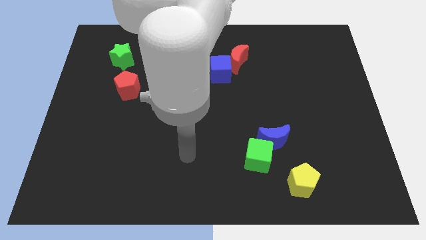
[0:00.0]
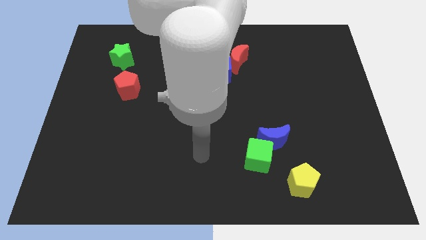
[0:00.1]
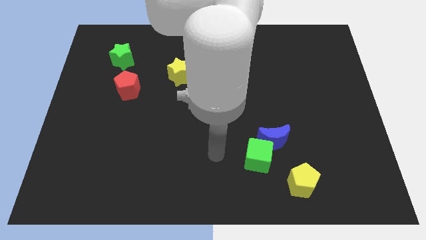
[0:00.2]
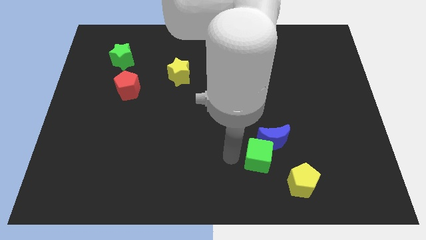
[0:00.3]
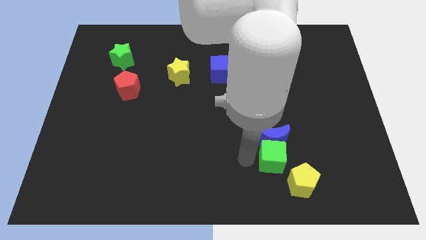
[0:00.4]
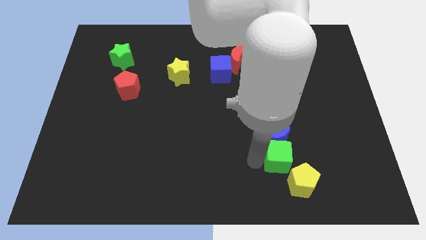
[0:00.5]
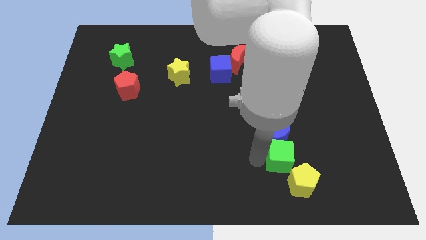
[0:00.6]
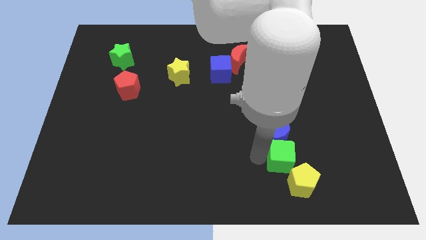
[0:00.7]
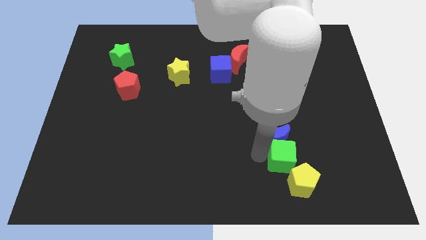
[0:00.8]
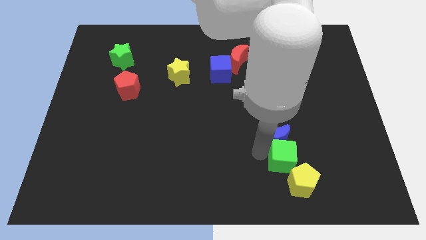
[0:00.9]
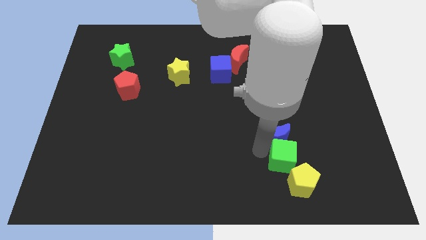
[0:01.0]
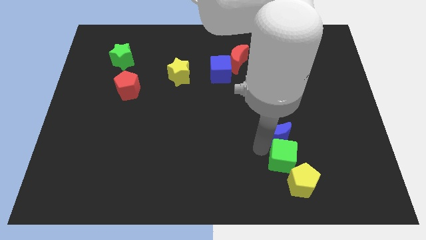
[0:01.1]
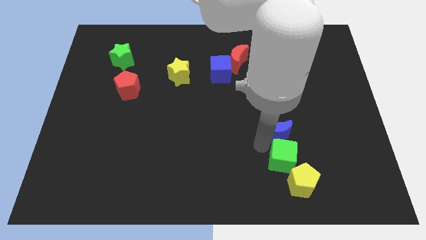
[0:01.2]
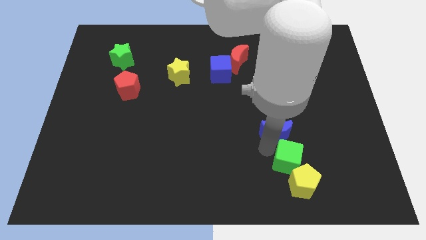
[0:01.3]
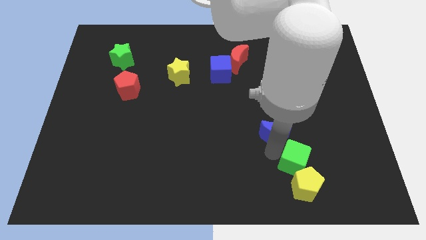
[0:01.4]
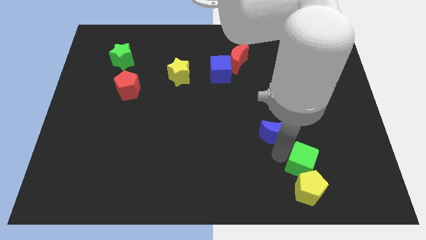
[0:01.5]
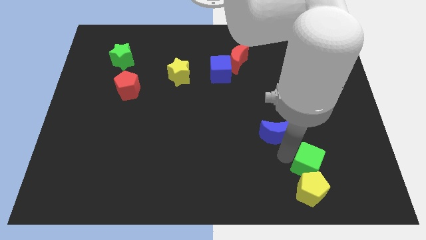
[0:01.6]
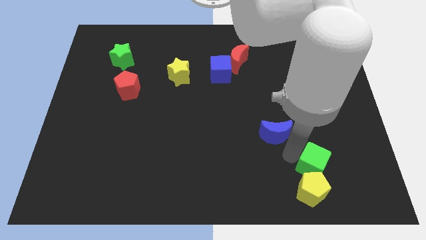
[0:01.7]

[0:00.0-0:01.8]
pull the blue moon apart from the green cube

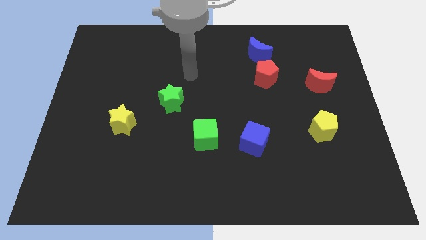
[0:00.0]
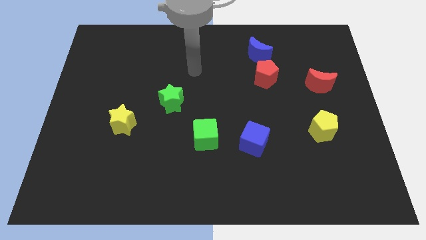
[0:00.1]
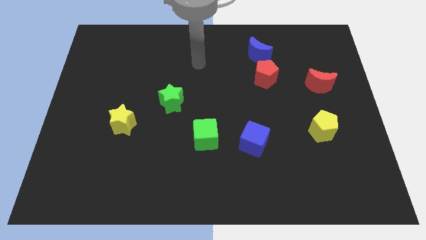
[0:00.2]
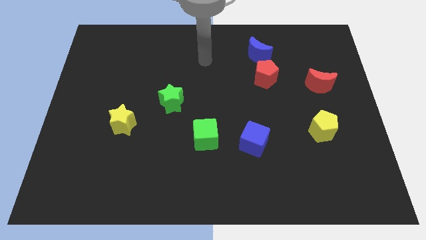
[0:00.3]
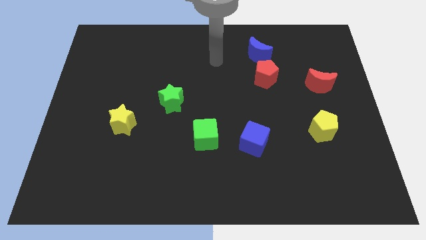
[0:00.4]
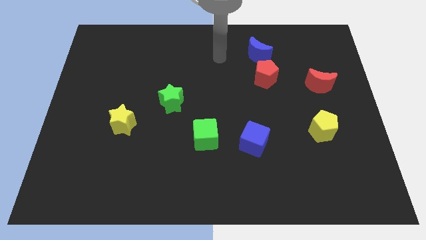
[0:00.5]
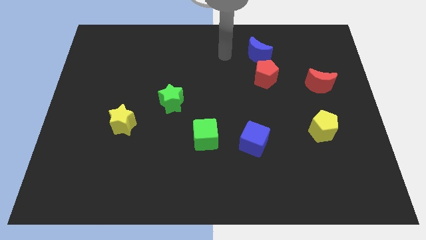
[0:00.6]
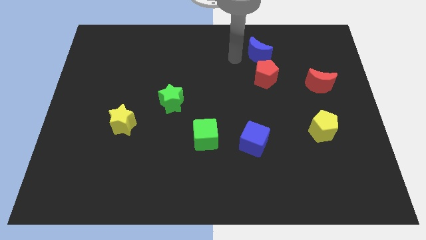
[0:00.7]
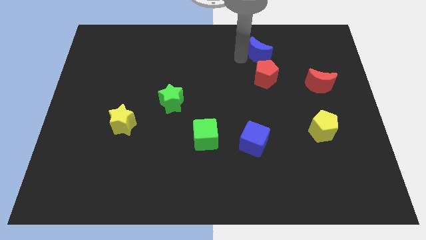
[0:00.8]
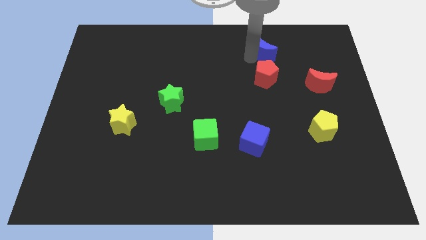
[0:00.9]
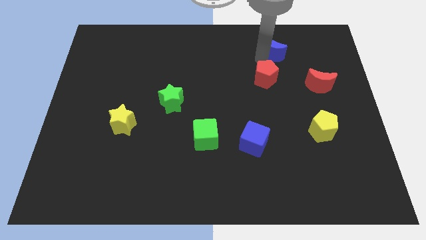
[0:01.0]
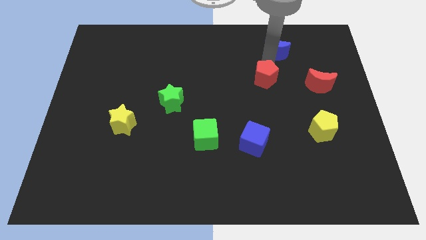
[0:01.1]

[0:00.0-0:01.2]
move the red pentagon away from the blue moon

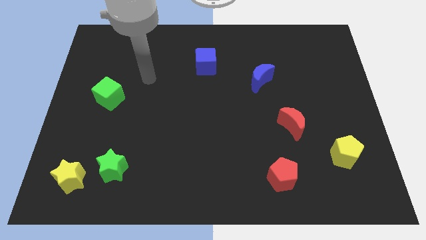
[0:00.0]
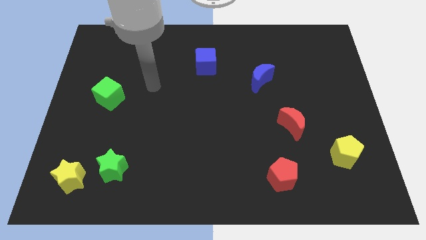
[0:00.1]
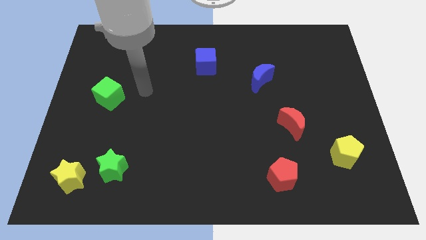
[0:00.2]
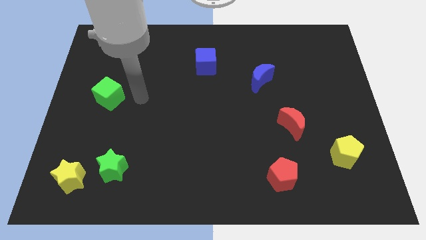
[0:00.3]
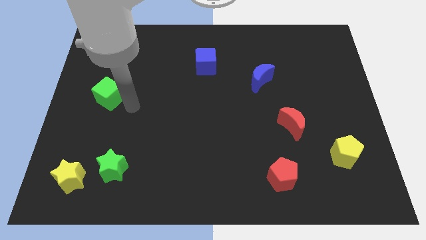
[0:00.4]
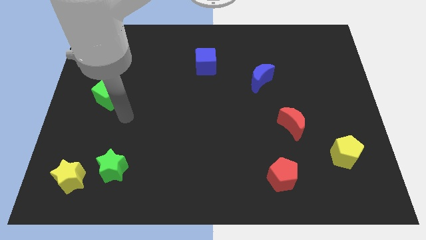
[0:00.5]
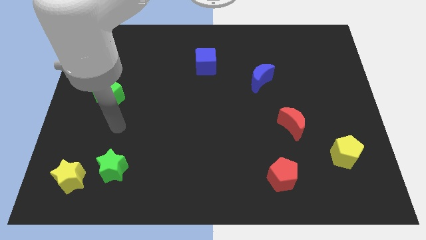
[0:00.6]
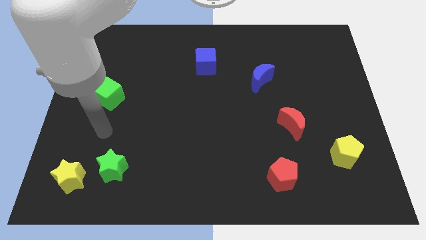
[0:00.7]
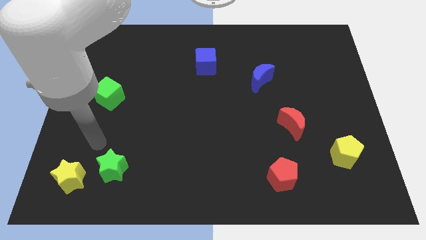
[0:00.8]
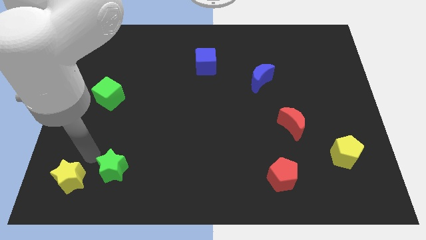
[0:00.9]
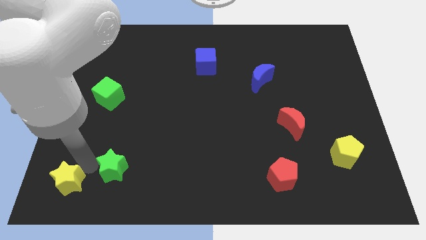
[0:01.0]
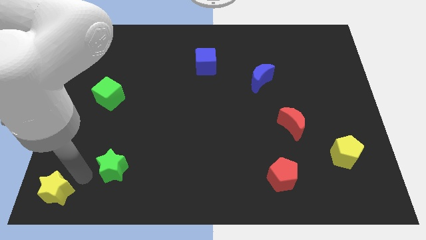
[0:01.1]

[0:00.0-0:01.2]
pull the green star apart from the yellow star

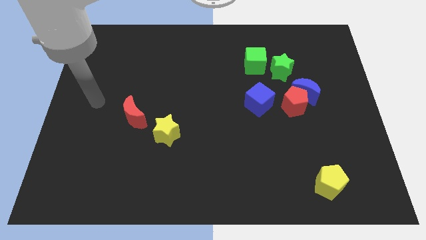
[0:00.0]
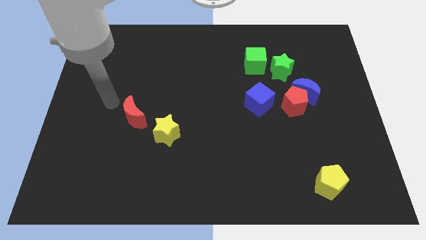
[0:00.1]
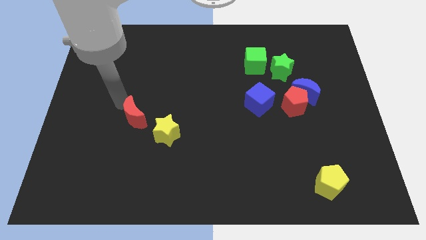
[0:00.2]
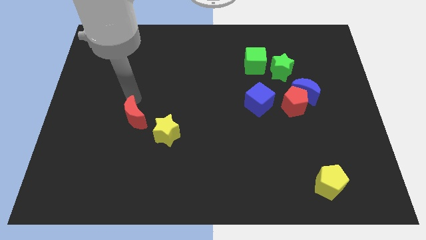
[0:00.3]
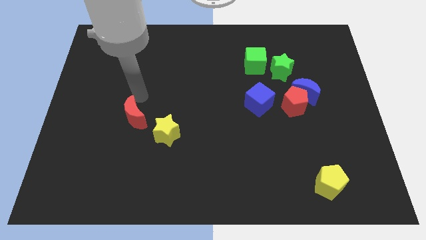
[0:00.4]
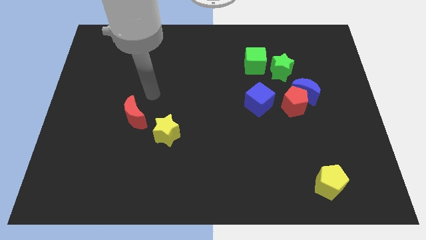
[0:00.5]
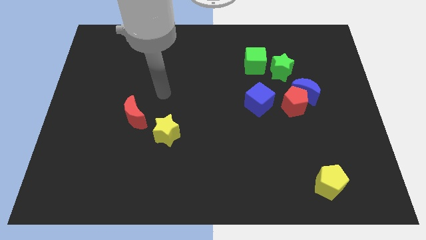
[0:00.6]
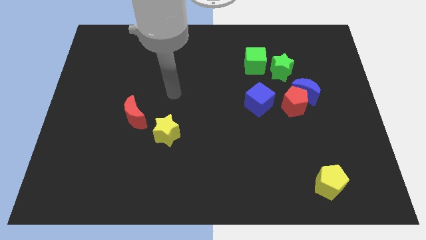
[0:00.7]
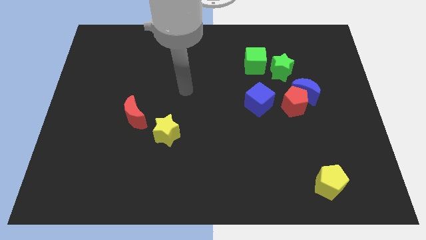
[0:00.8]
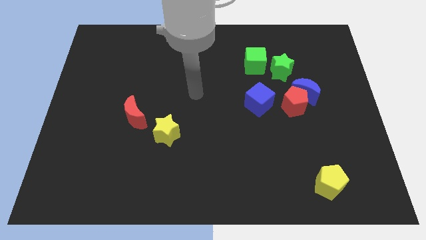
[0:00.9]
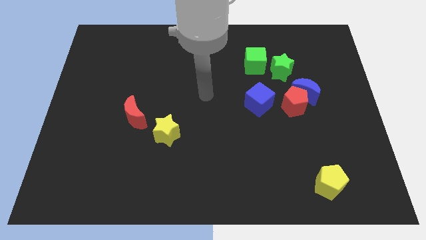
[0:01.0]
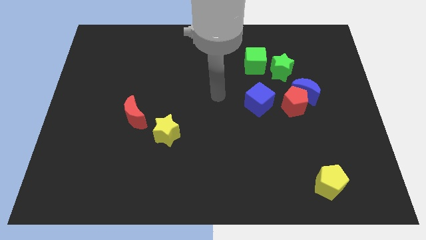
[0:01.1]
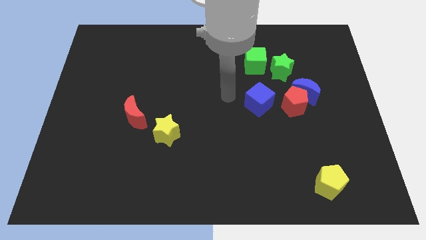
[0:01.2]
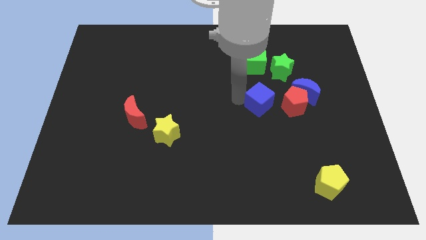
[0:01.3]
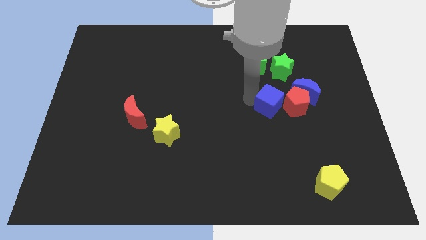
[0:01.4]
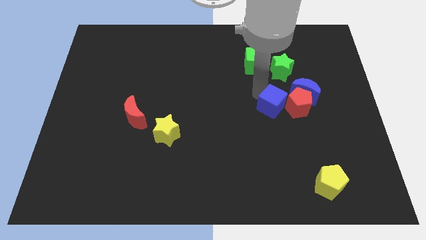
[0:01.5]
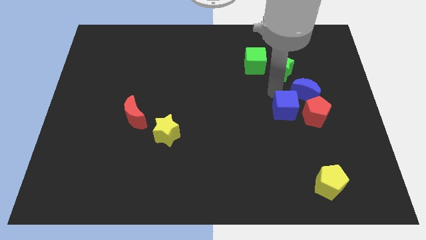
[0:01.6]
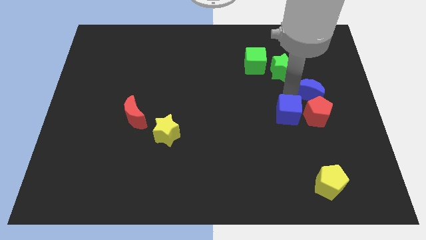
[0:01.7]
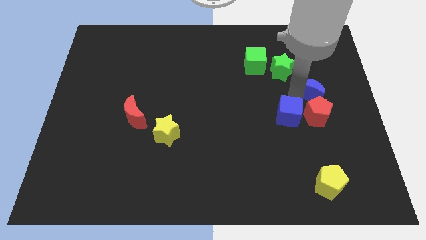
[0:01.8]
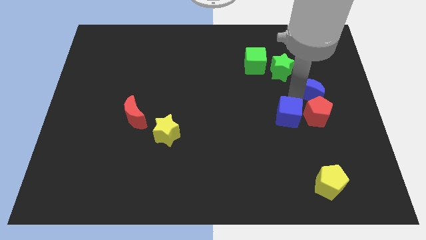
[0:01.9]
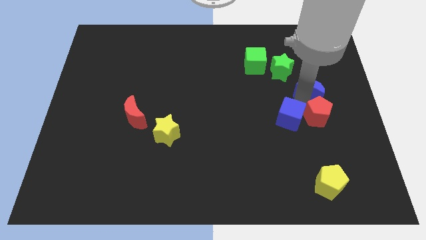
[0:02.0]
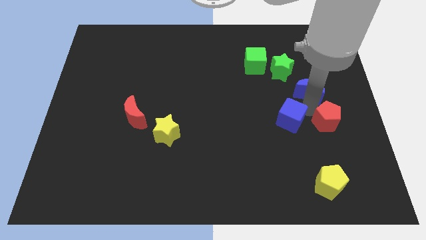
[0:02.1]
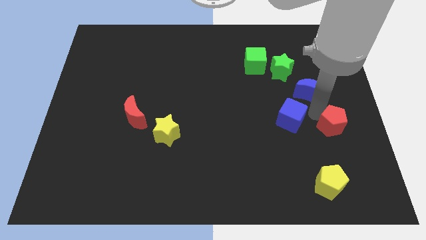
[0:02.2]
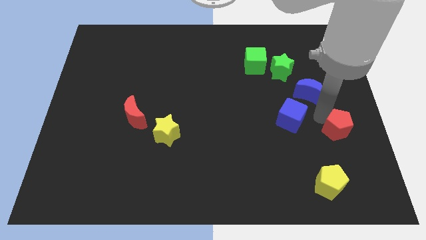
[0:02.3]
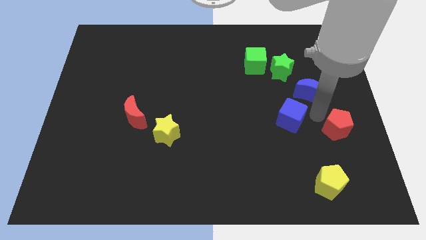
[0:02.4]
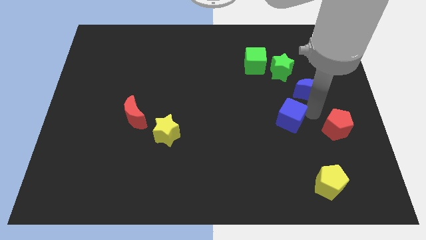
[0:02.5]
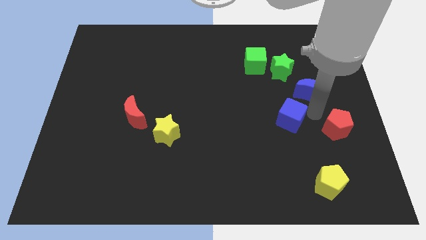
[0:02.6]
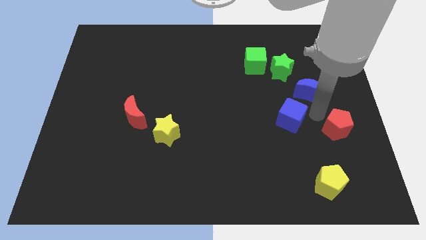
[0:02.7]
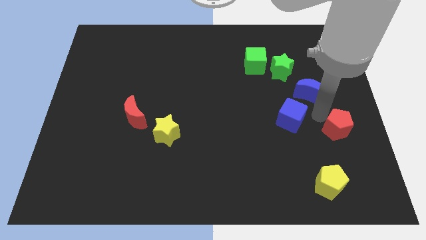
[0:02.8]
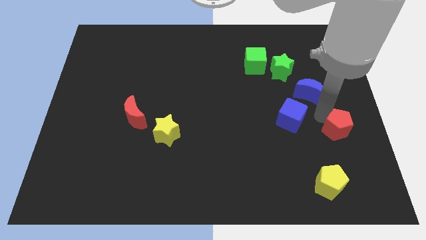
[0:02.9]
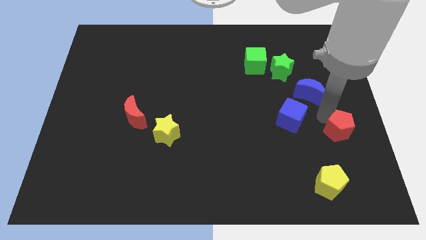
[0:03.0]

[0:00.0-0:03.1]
move the red pentagon away from the blue moon and blue cube

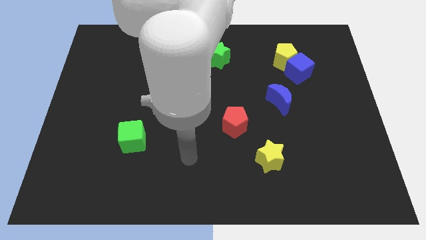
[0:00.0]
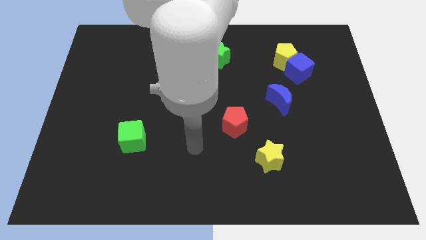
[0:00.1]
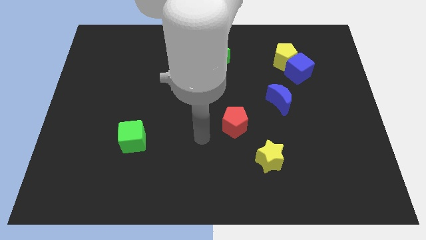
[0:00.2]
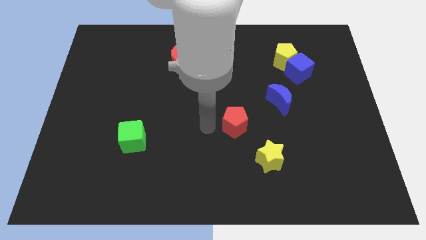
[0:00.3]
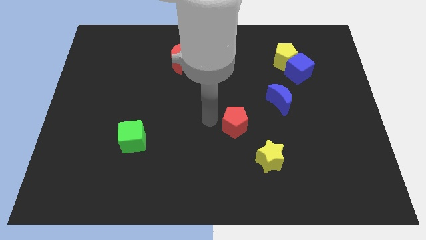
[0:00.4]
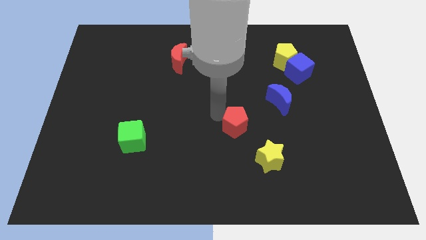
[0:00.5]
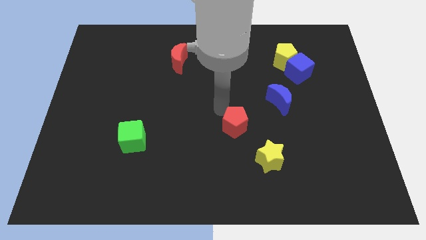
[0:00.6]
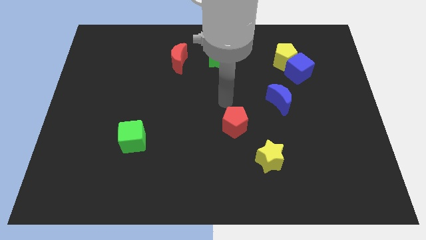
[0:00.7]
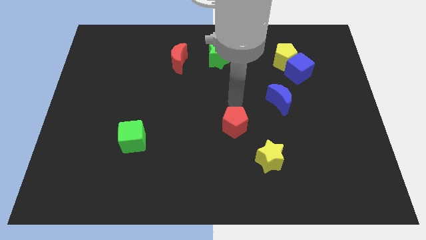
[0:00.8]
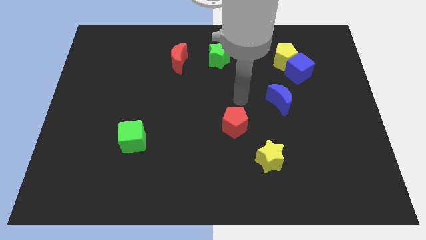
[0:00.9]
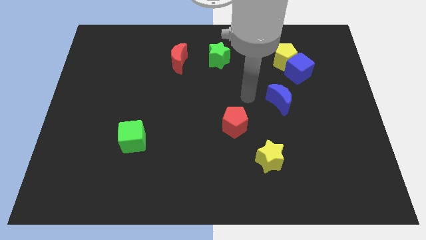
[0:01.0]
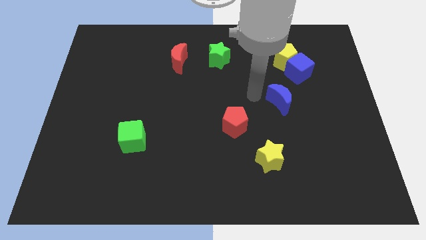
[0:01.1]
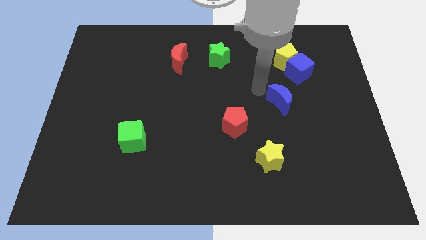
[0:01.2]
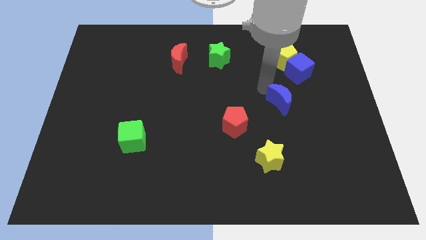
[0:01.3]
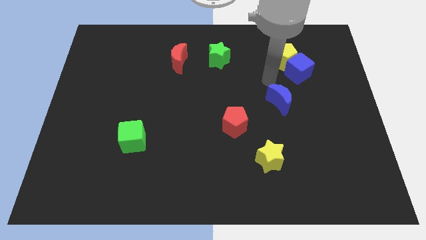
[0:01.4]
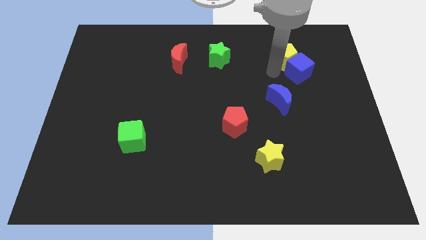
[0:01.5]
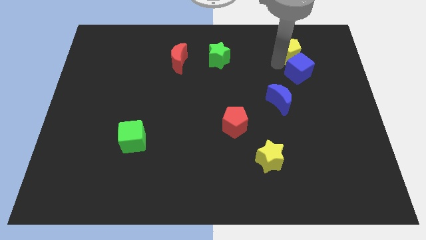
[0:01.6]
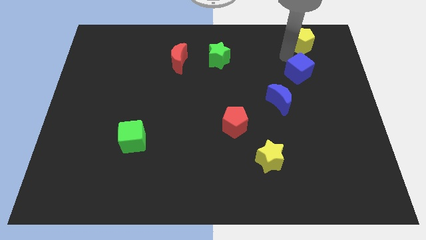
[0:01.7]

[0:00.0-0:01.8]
move the blue cube away from the yellow pentagon

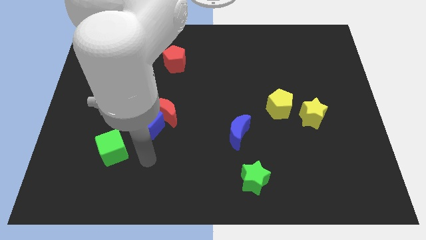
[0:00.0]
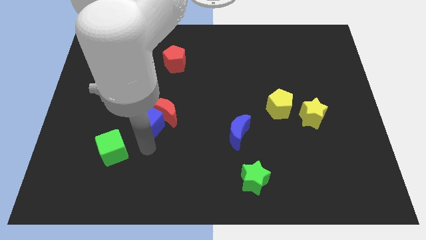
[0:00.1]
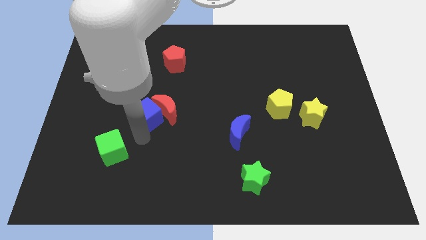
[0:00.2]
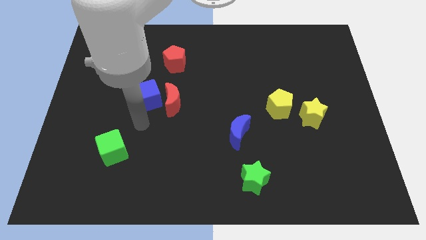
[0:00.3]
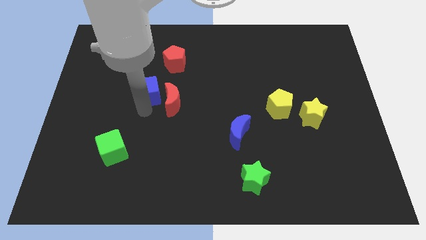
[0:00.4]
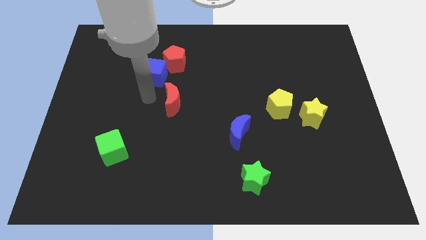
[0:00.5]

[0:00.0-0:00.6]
move the red moon away from the blue cube
